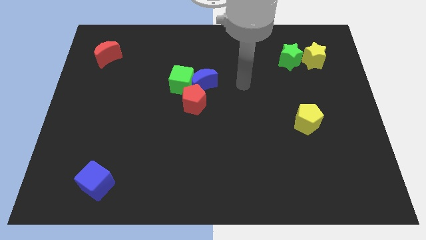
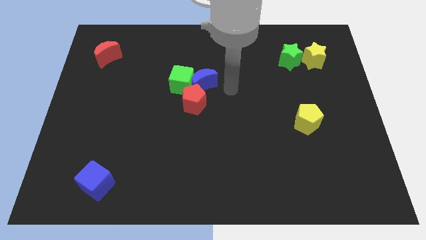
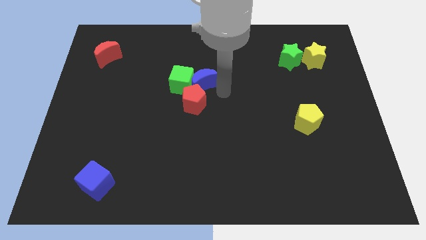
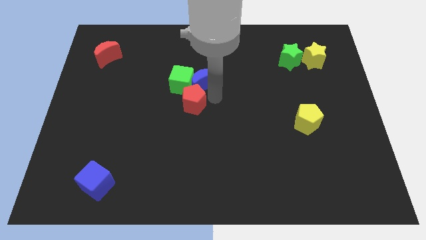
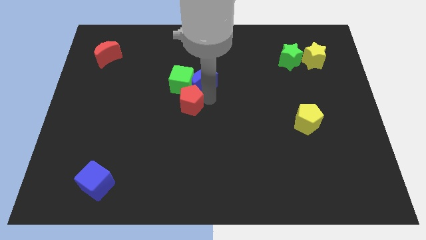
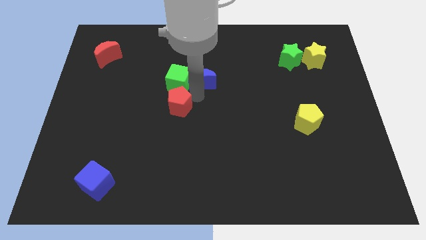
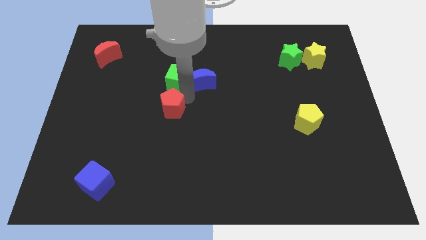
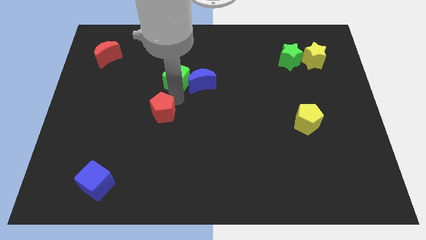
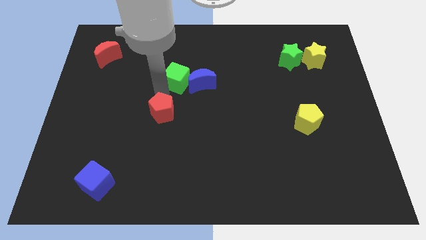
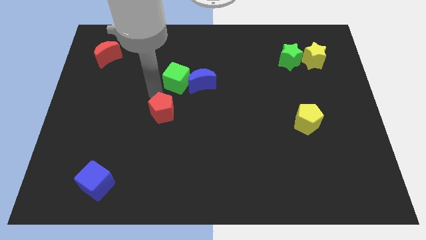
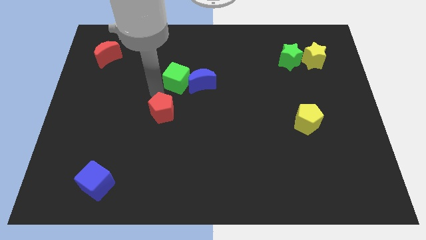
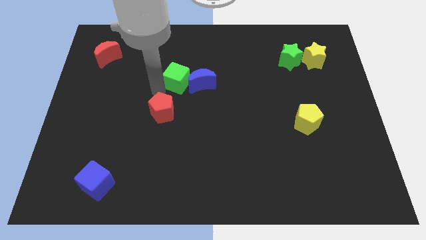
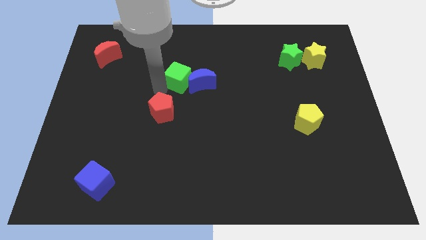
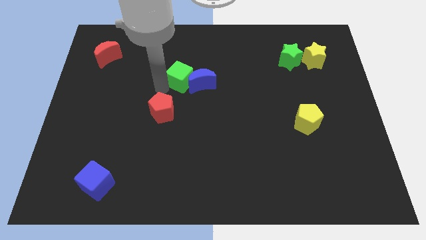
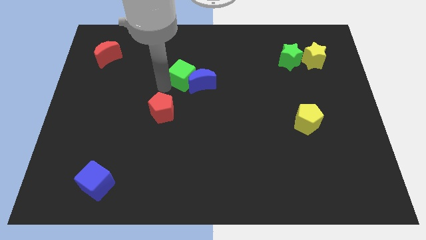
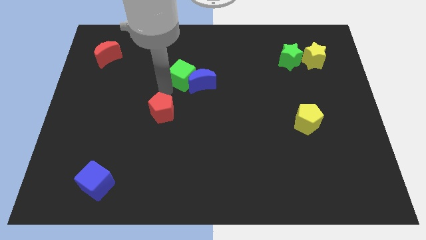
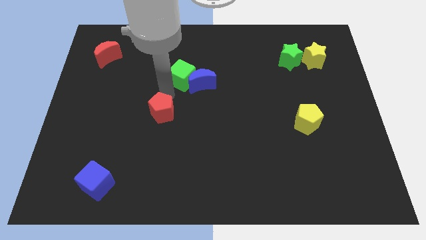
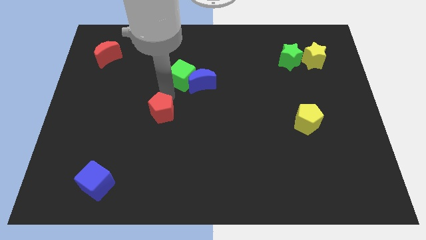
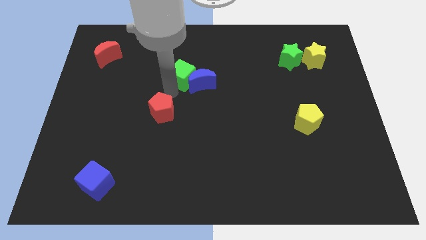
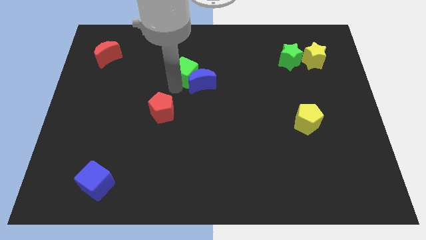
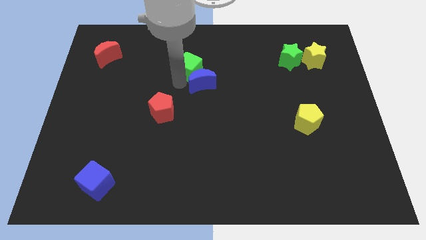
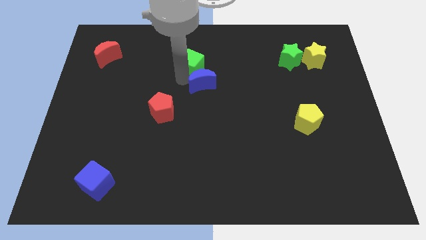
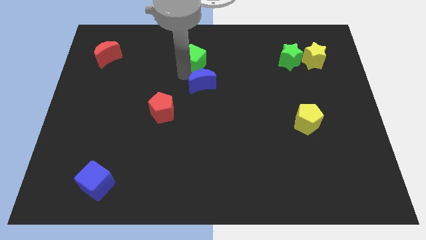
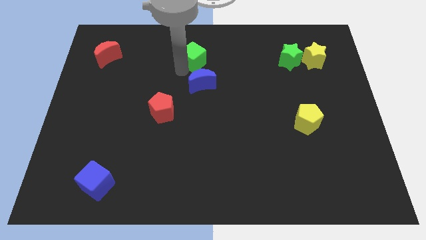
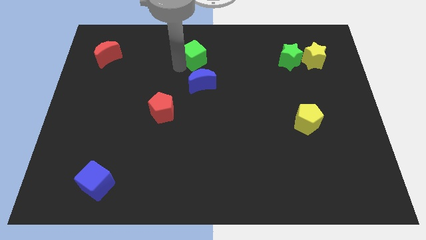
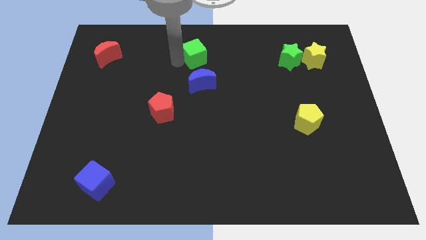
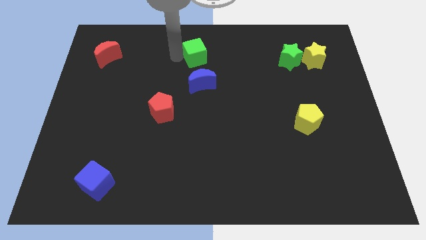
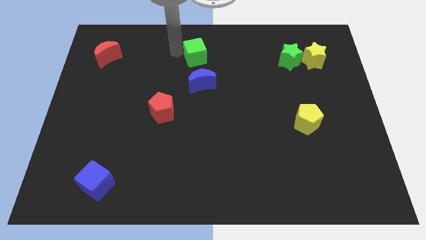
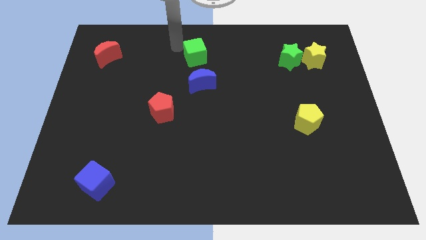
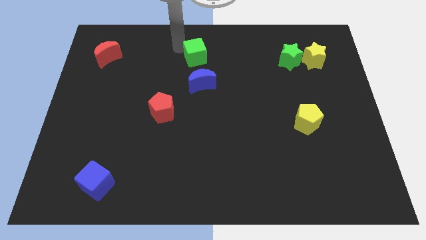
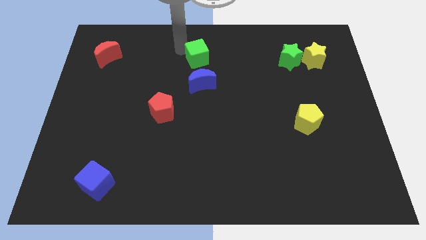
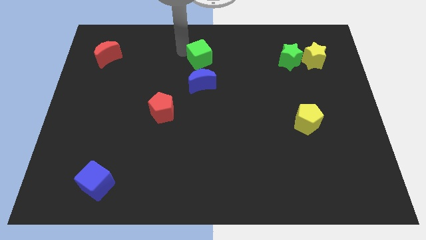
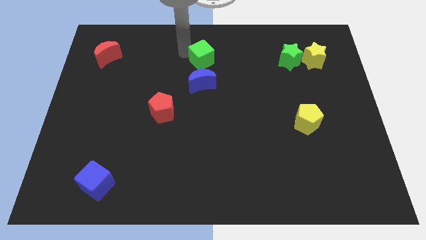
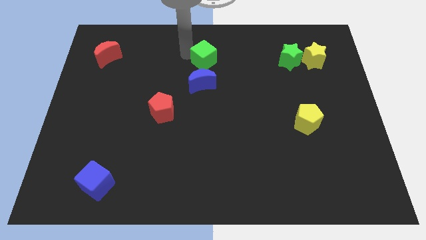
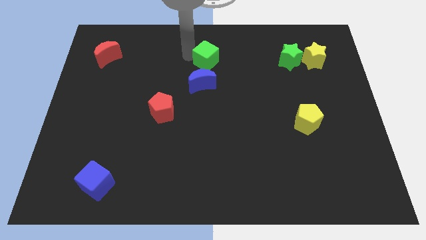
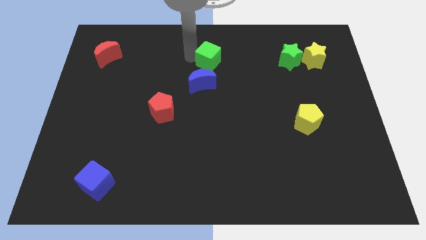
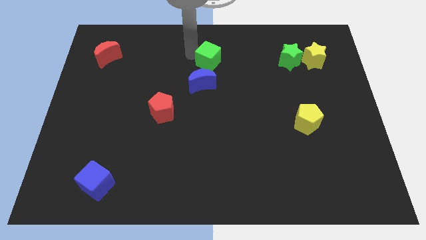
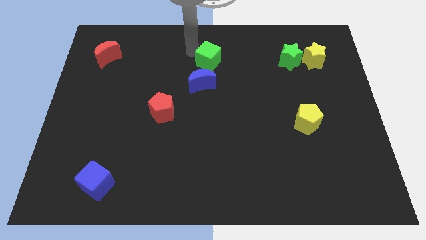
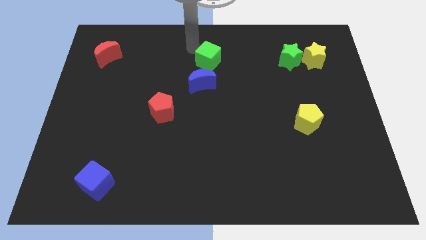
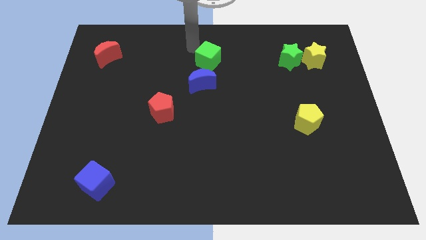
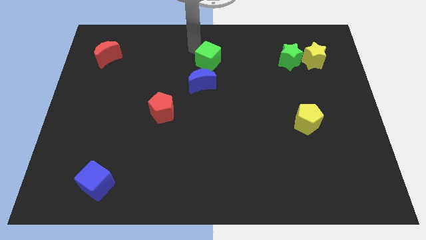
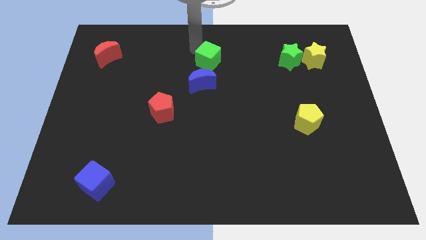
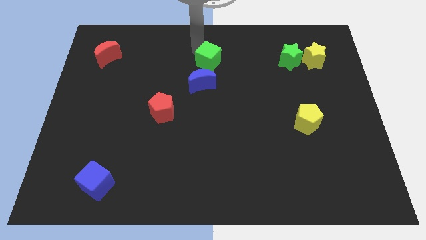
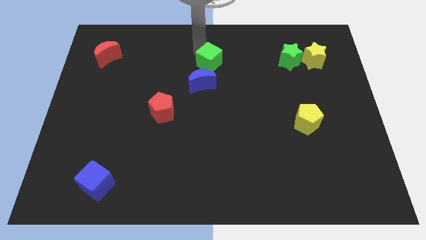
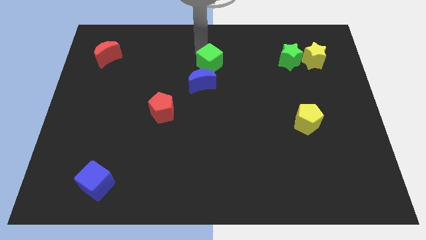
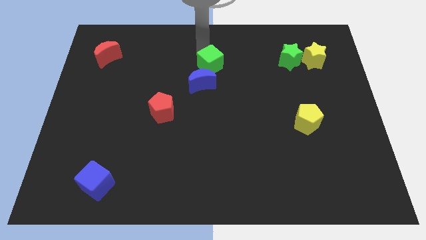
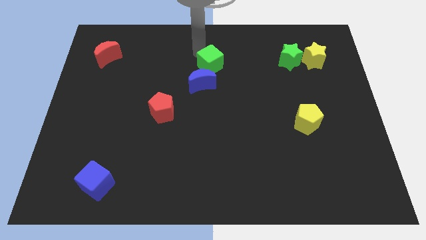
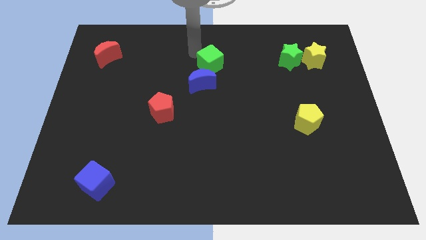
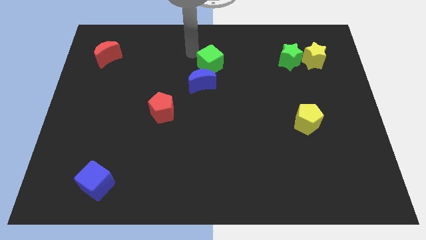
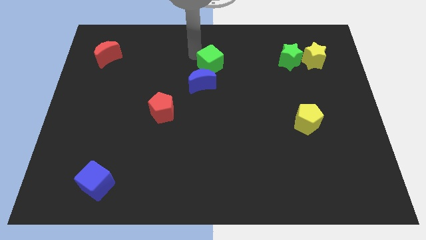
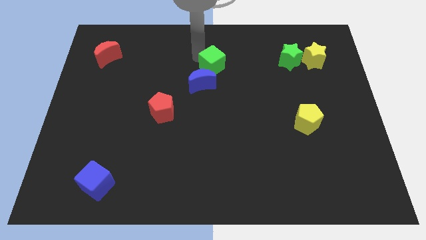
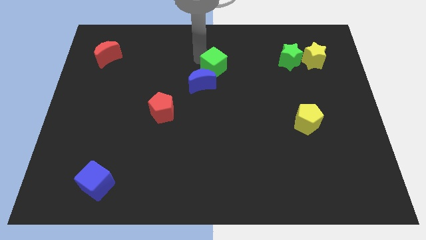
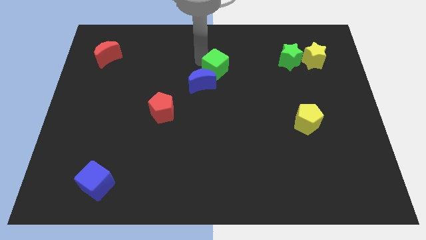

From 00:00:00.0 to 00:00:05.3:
slightly slide the green cube to the right

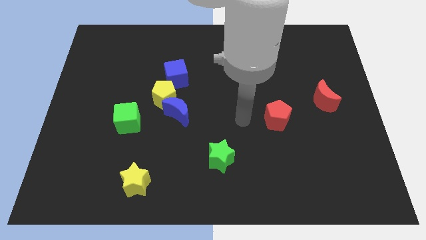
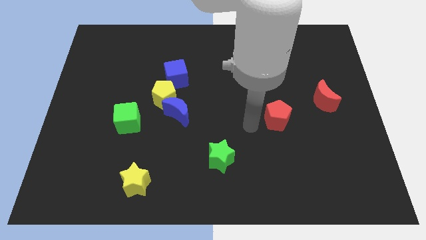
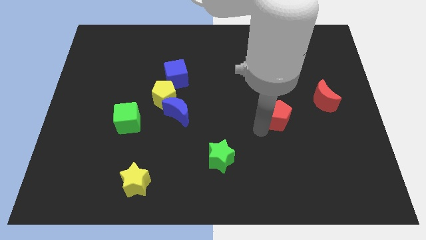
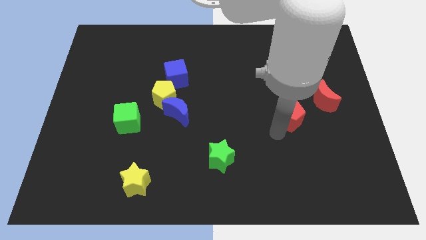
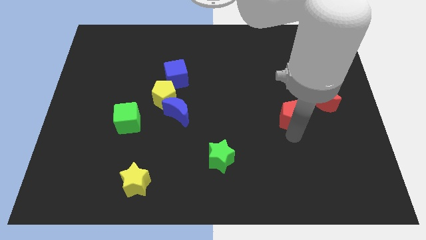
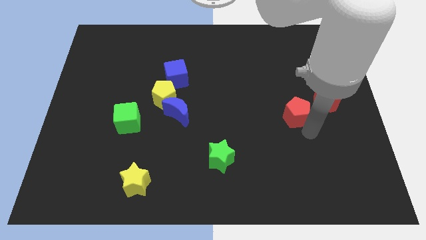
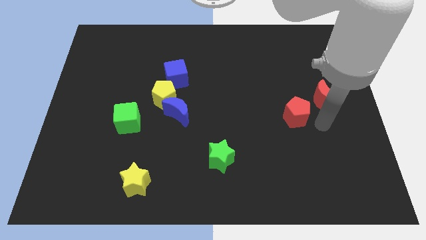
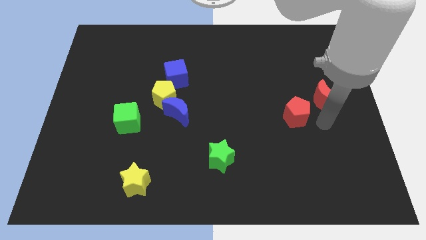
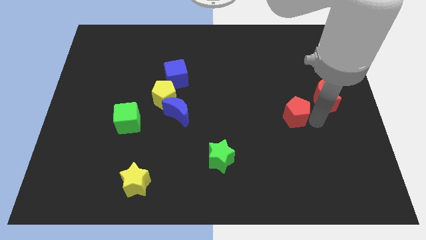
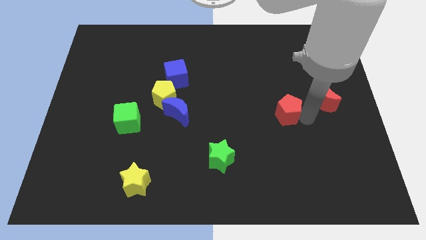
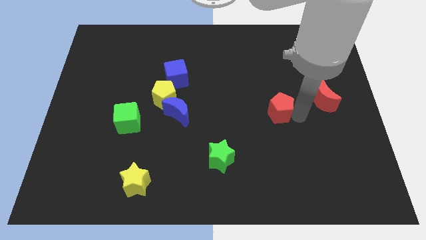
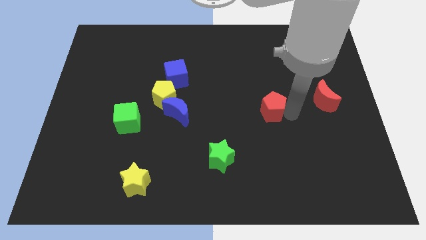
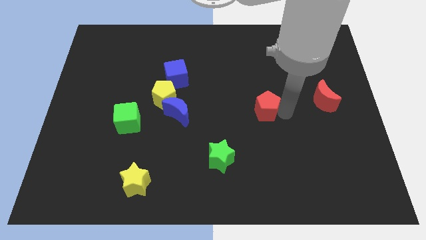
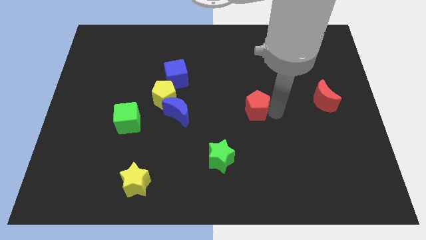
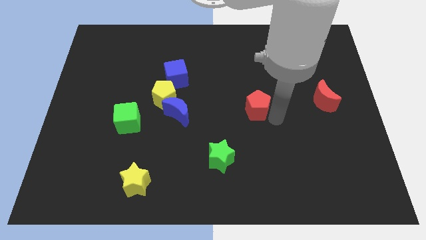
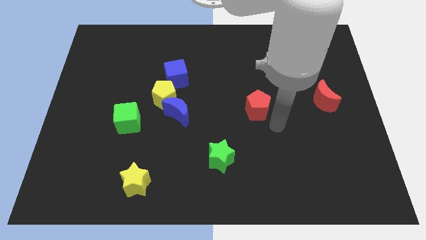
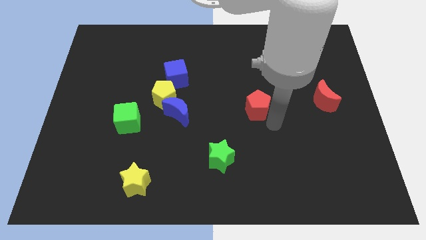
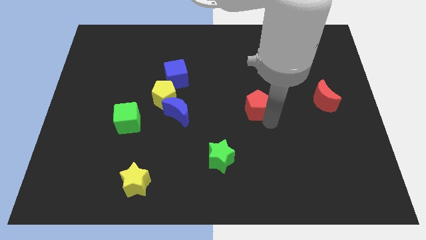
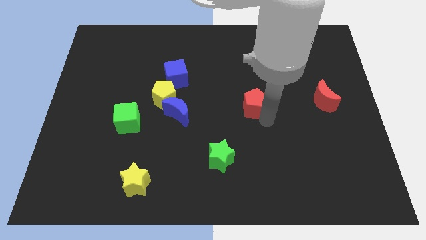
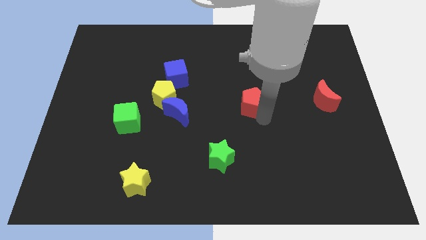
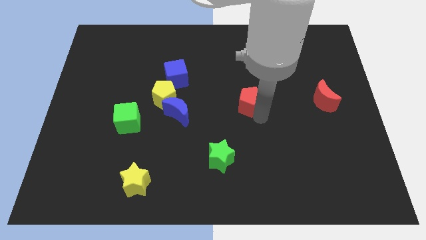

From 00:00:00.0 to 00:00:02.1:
slightly slide the red pentagon upwards and then left

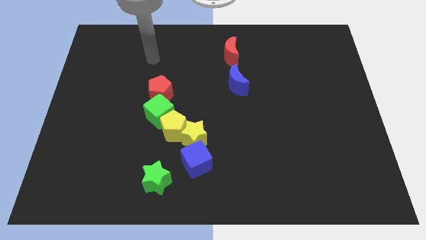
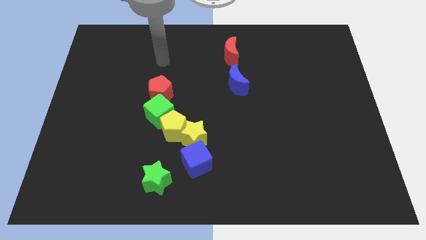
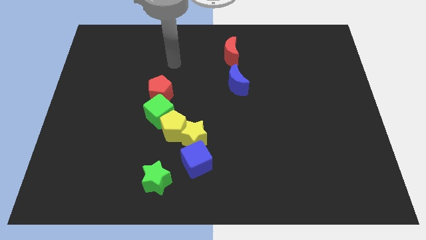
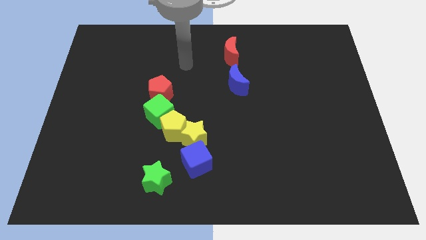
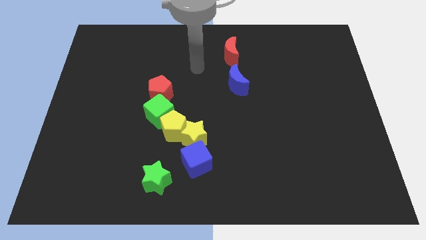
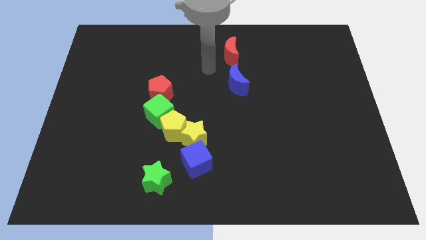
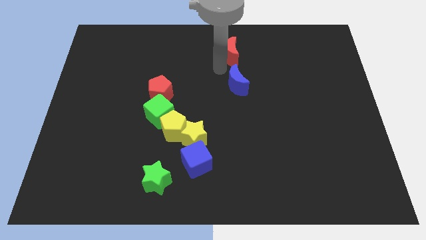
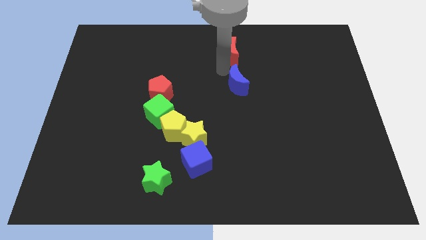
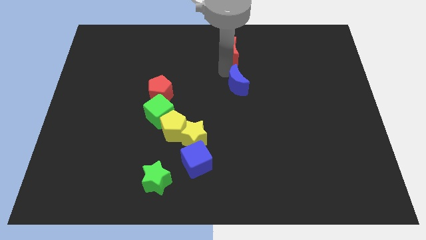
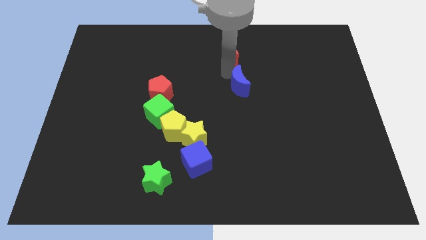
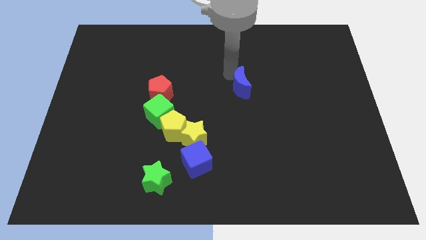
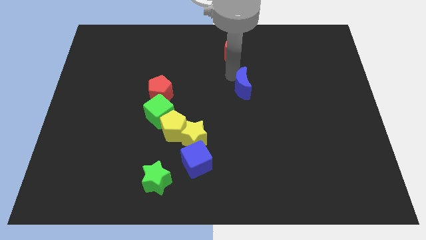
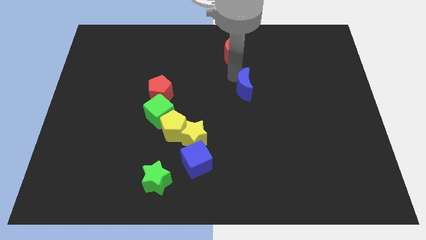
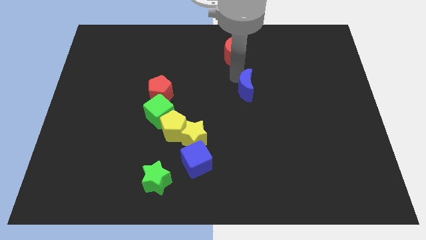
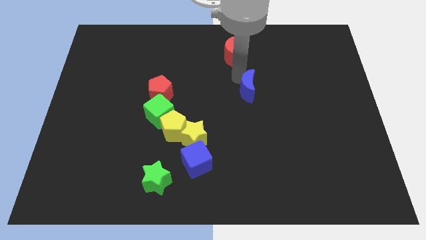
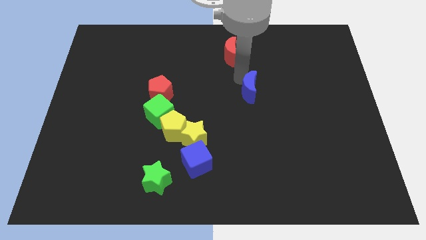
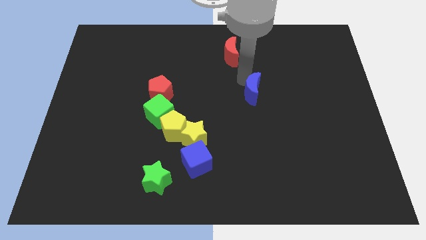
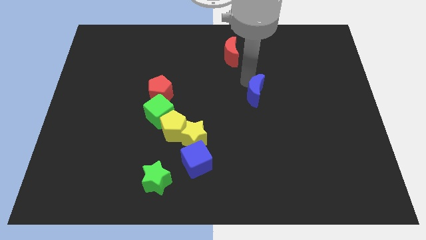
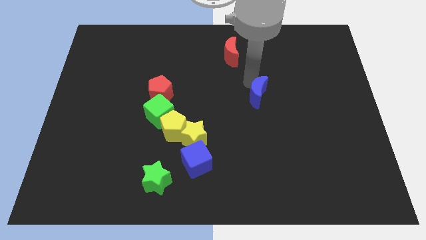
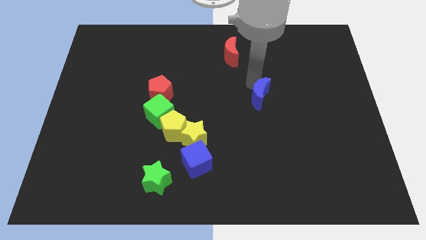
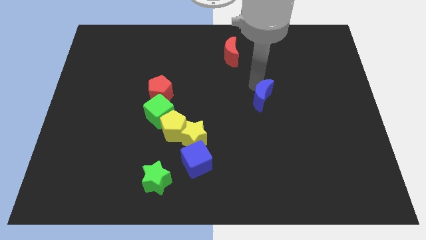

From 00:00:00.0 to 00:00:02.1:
slightly slide the blue moon down and right diagonally
